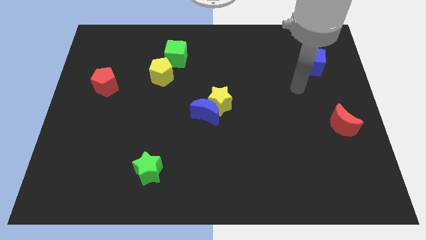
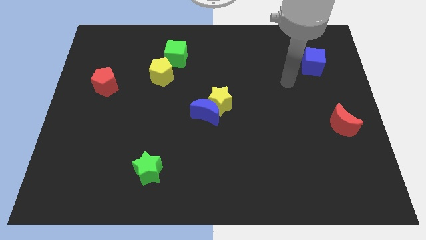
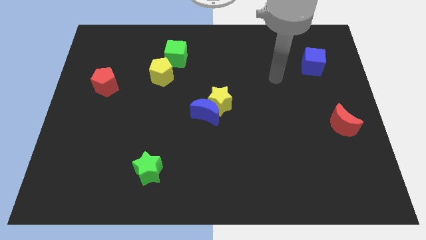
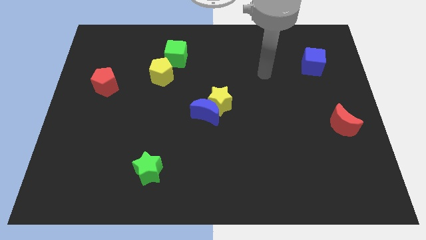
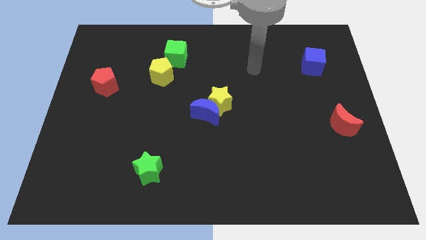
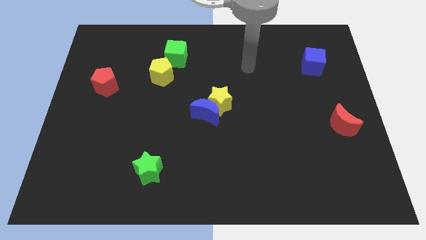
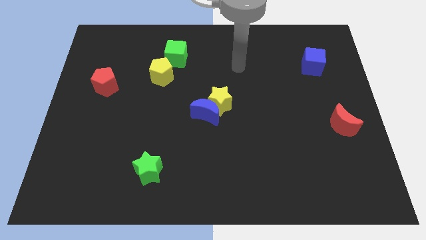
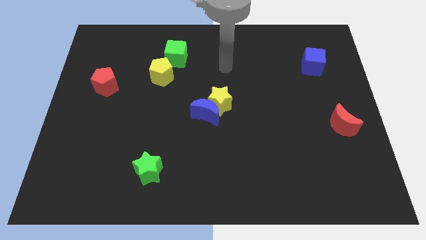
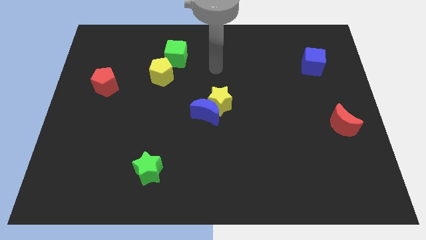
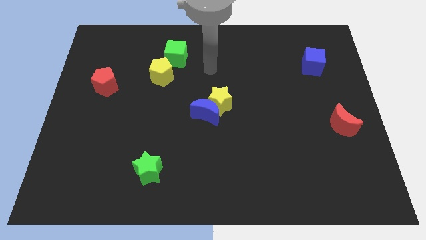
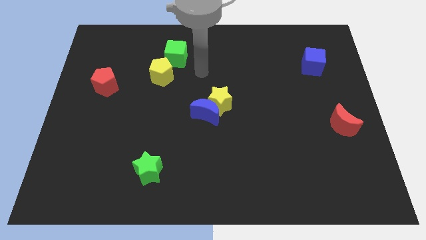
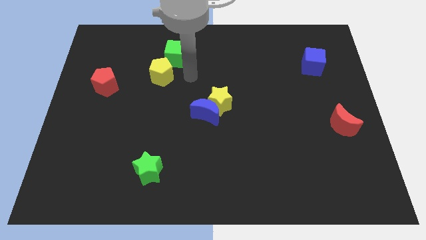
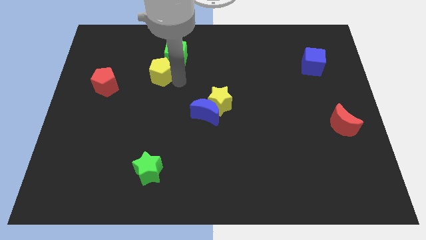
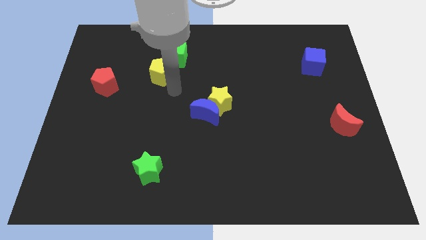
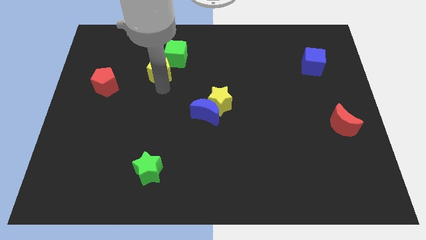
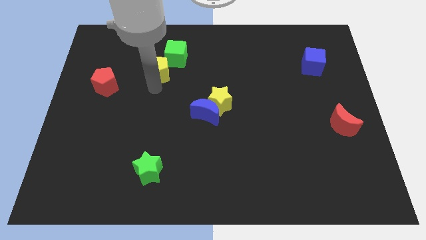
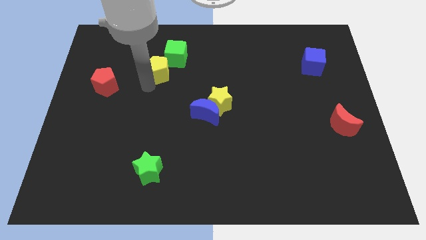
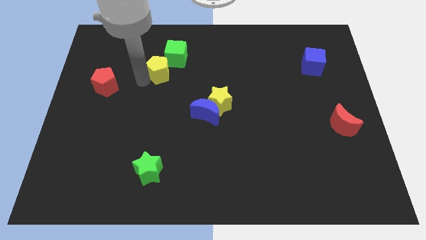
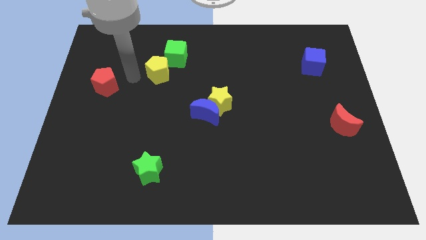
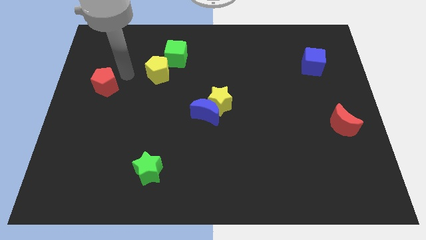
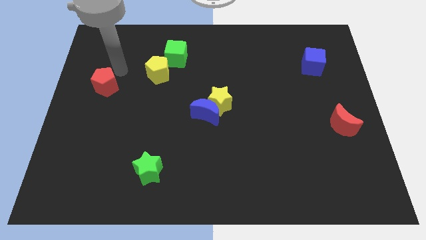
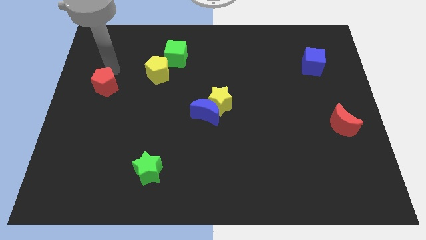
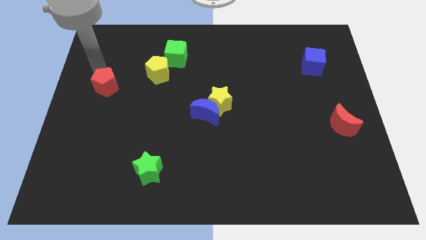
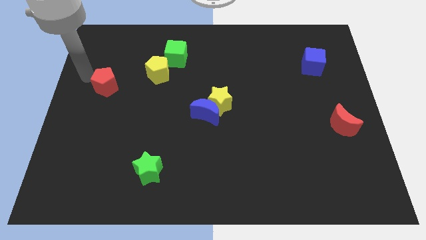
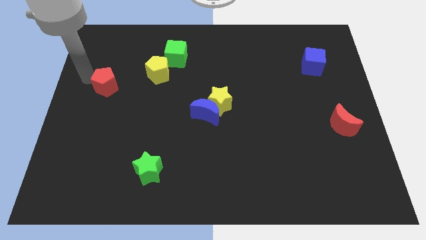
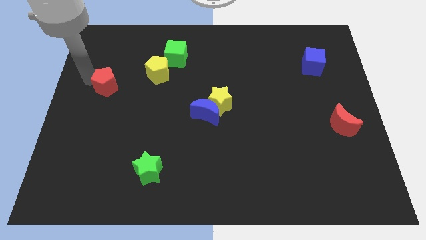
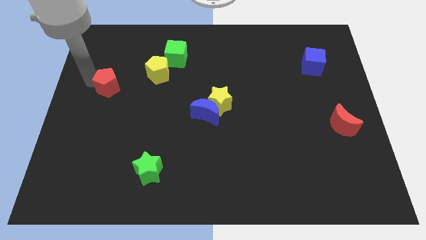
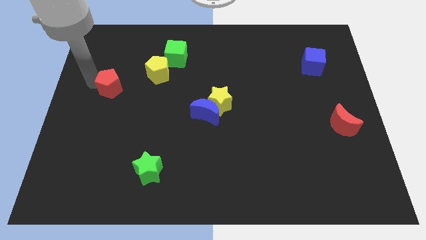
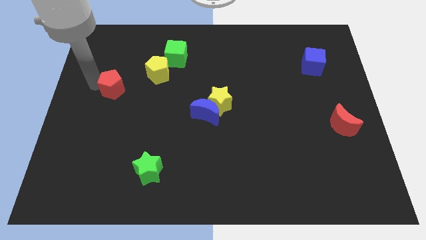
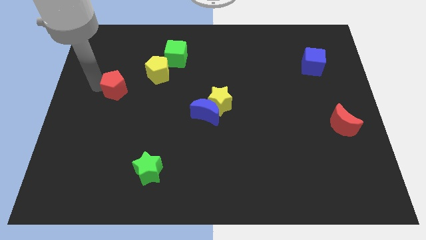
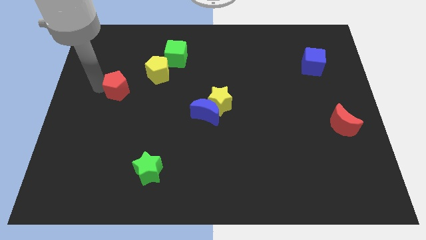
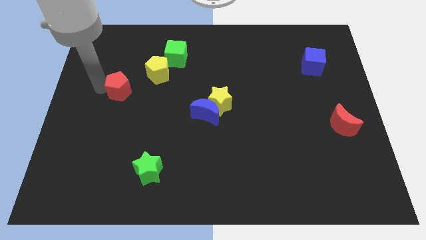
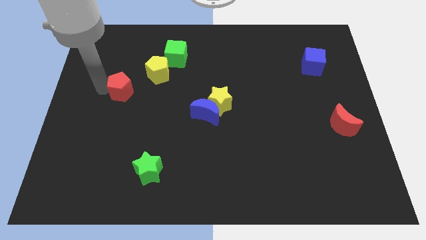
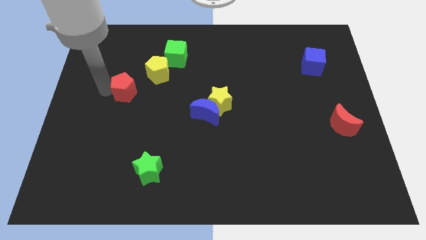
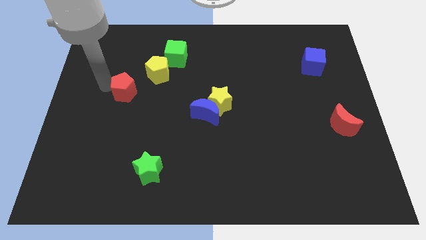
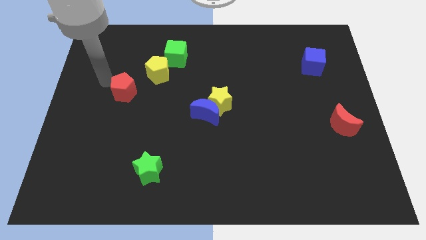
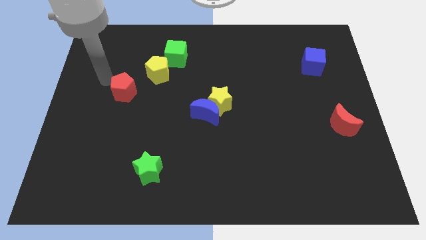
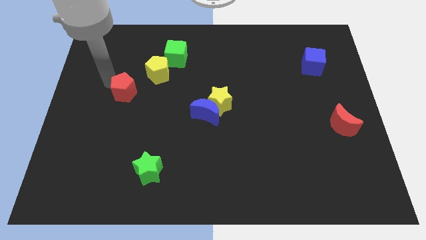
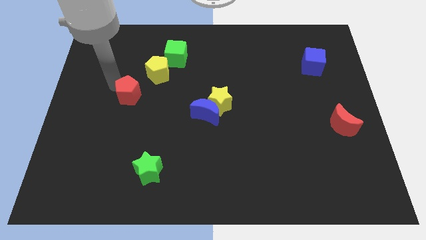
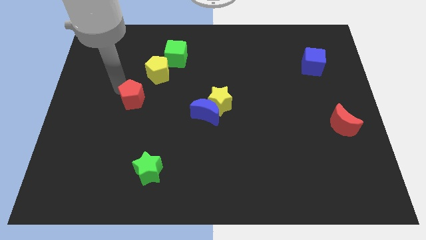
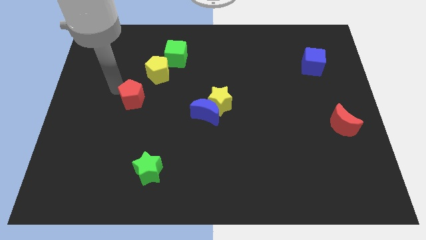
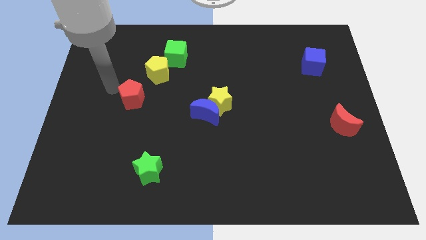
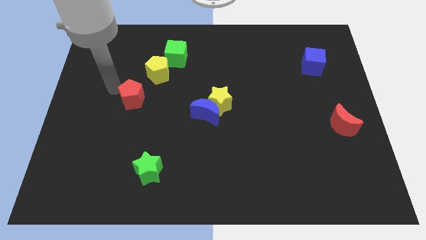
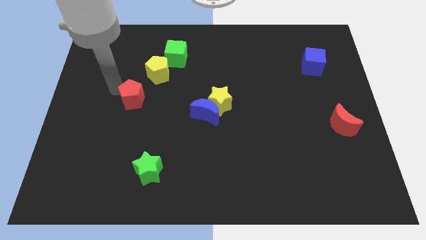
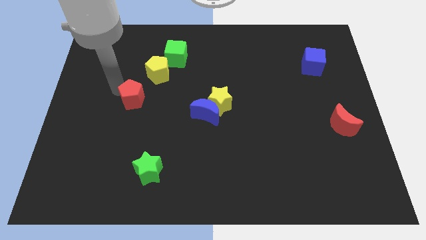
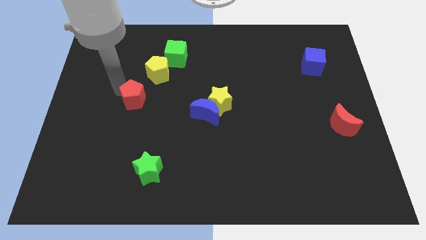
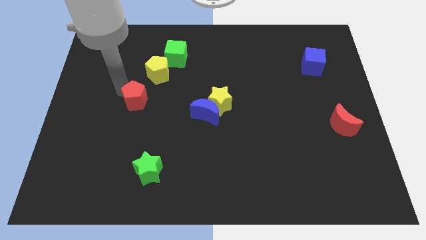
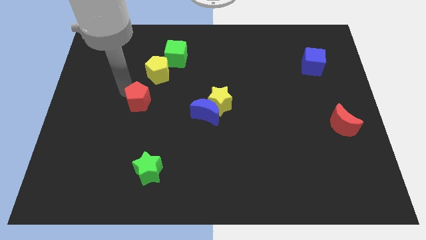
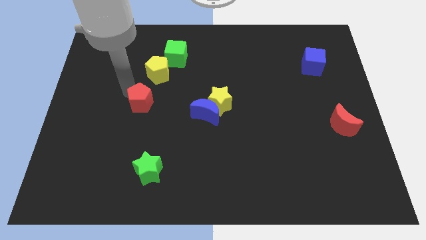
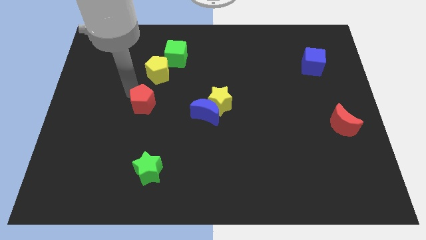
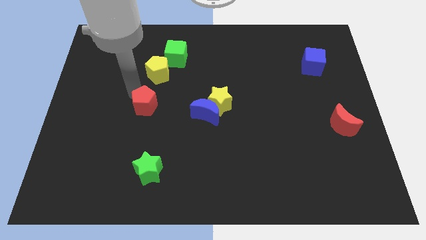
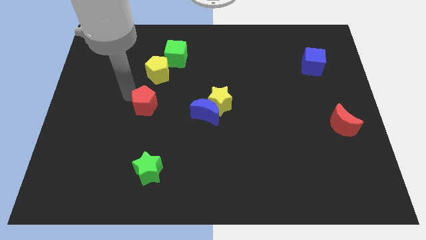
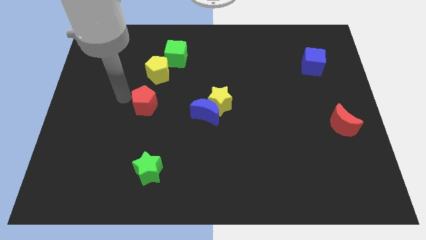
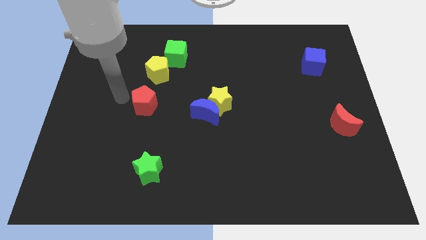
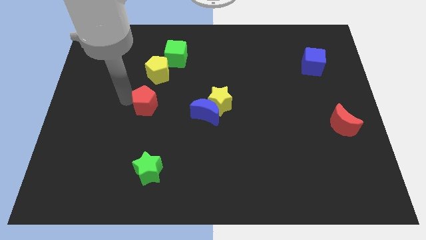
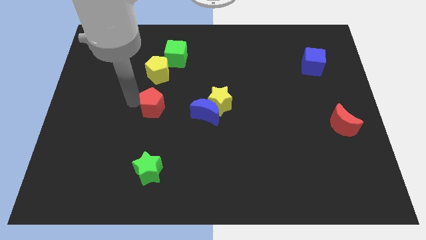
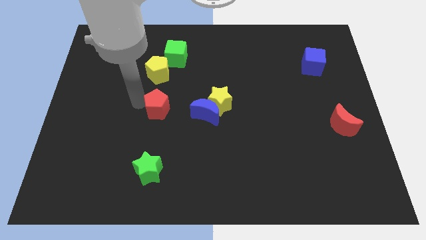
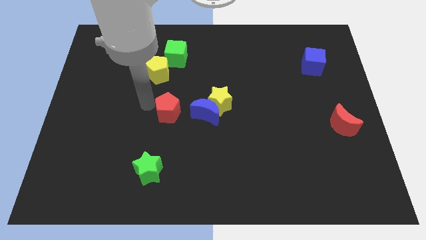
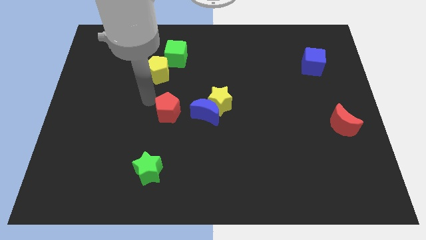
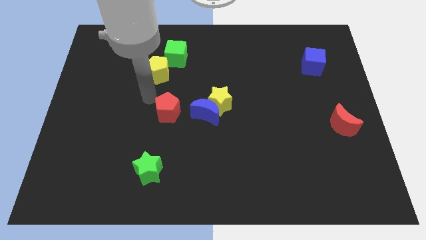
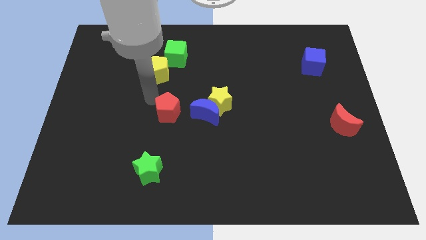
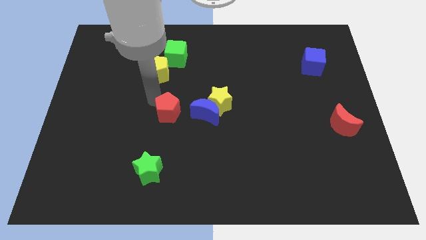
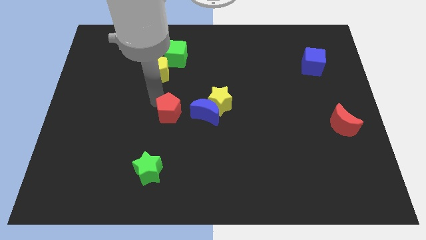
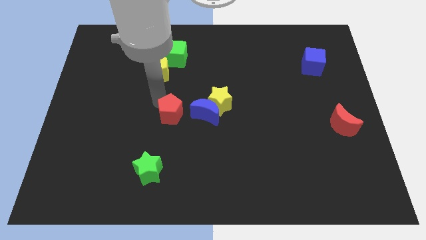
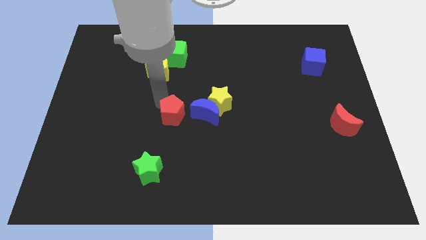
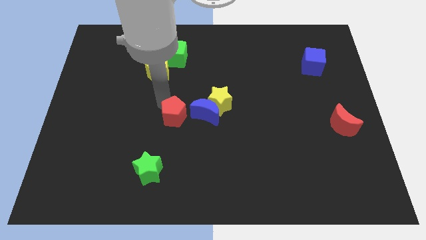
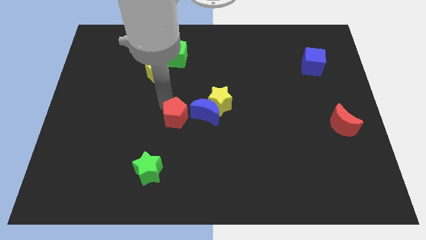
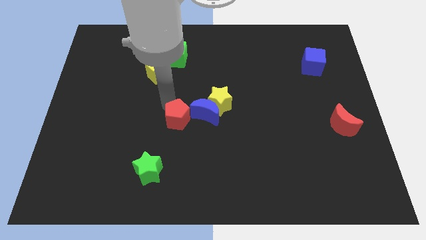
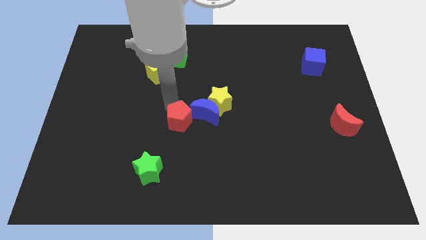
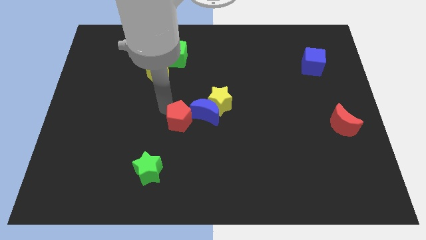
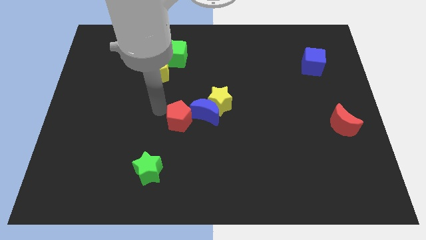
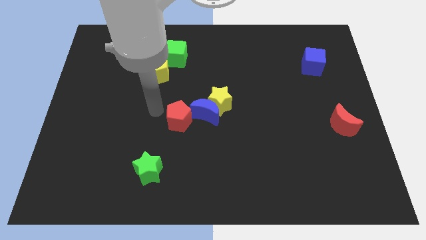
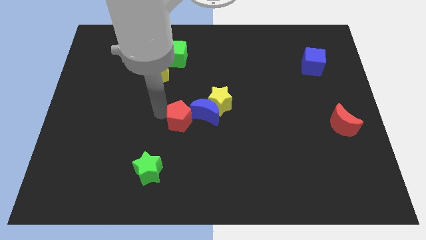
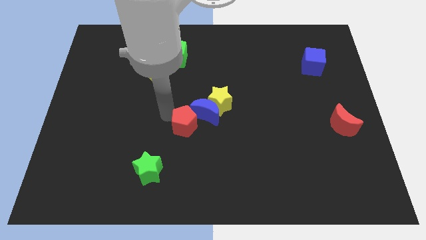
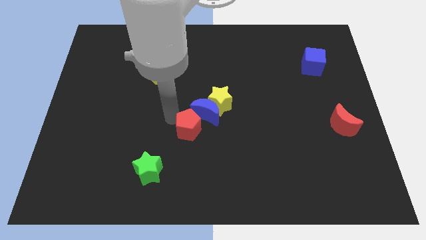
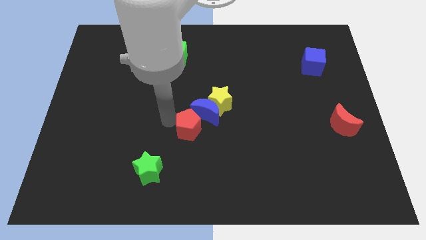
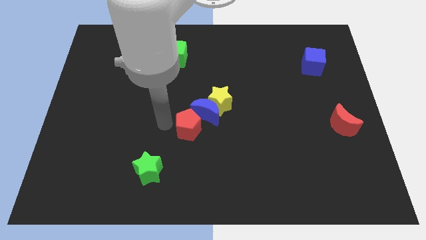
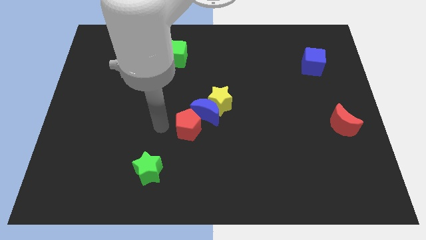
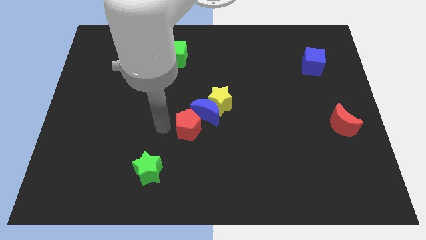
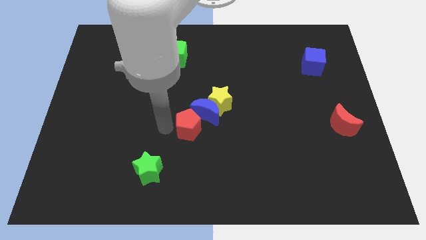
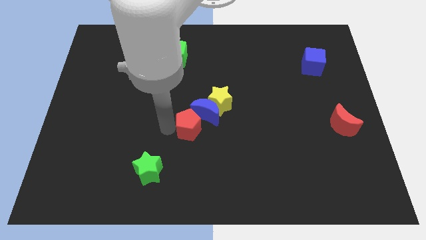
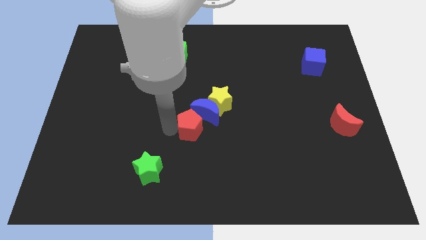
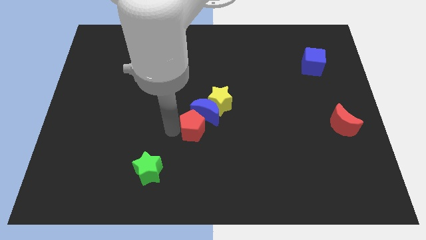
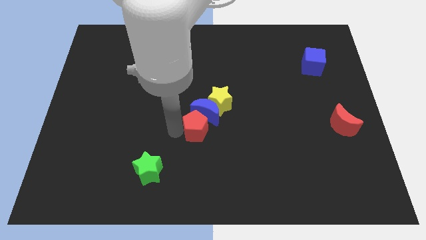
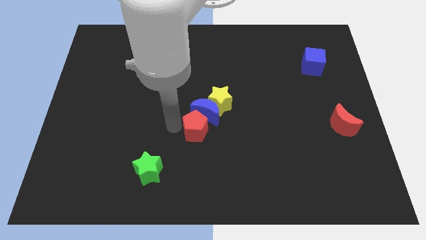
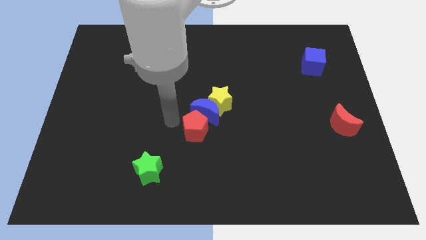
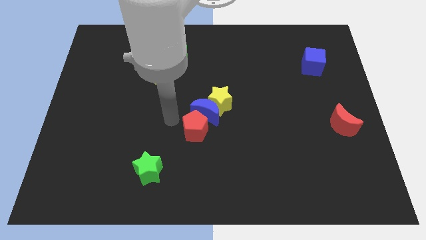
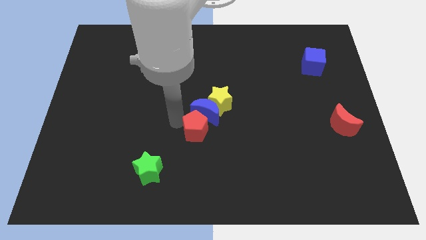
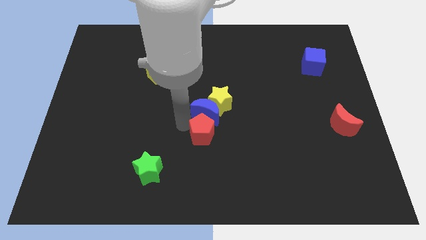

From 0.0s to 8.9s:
put the red pentagon to the bottom of the yellow star
